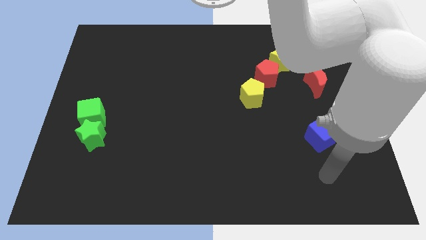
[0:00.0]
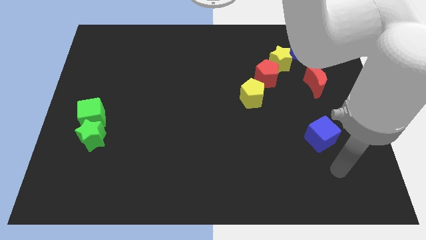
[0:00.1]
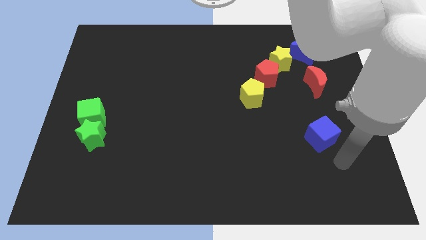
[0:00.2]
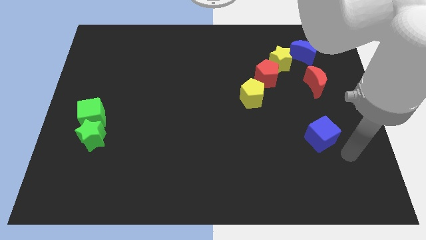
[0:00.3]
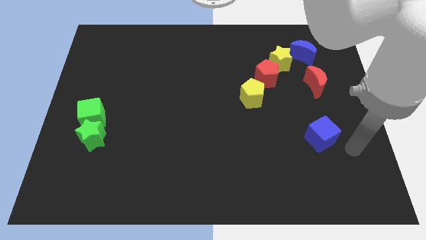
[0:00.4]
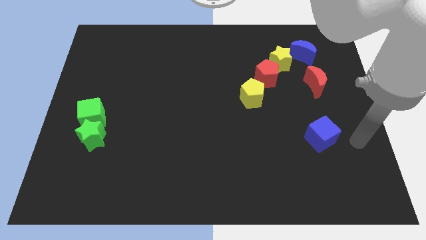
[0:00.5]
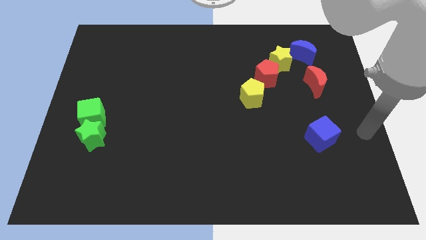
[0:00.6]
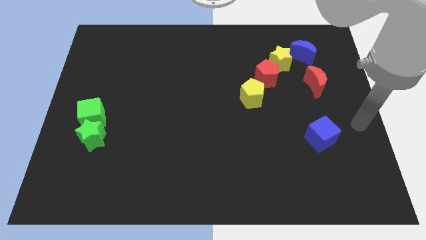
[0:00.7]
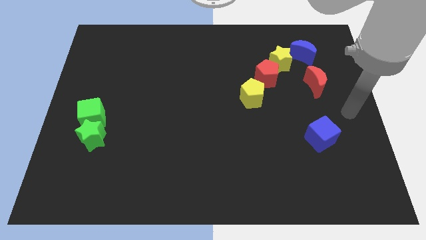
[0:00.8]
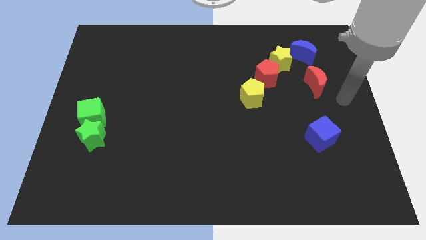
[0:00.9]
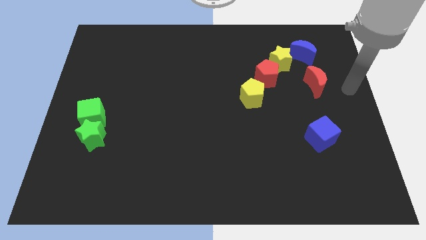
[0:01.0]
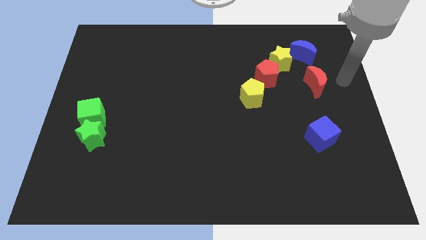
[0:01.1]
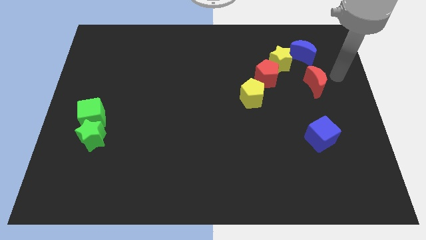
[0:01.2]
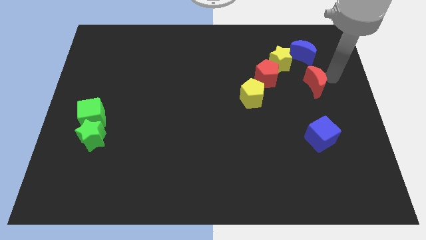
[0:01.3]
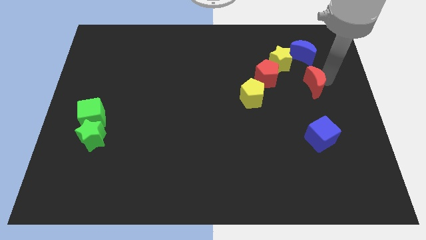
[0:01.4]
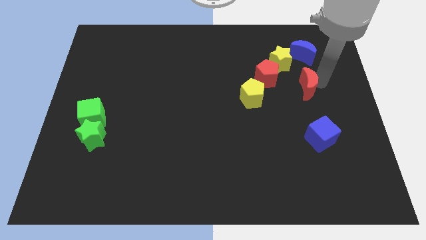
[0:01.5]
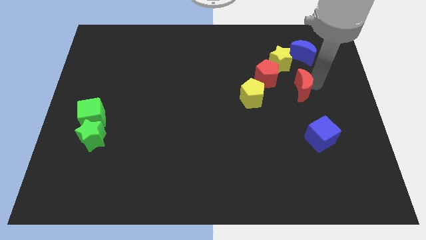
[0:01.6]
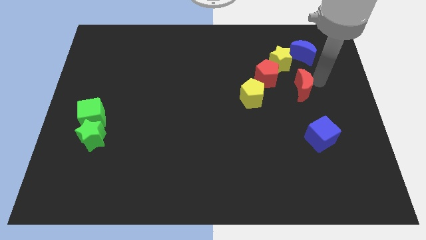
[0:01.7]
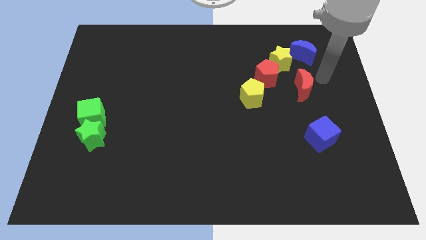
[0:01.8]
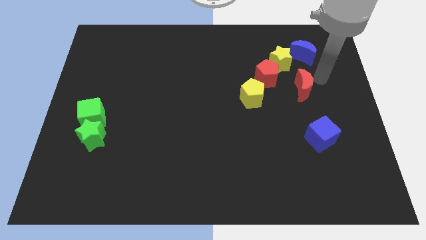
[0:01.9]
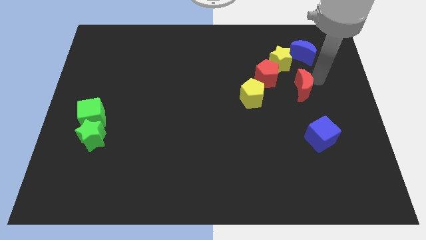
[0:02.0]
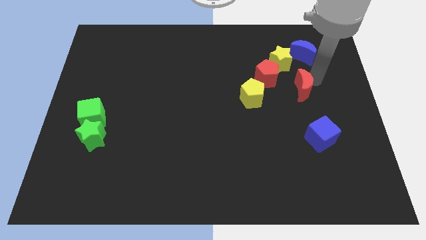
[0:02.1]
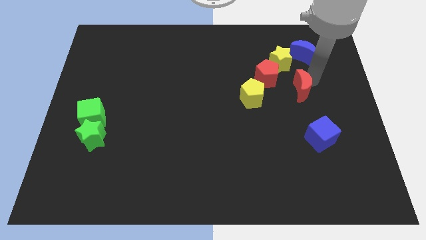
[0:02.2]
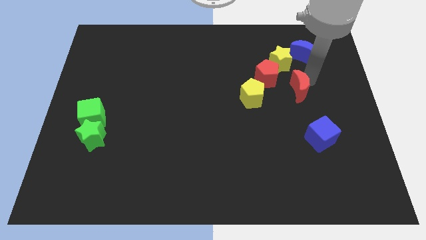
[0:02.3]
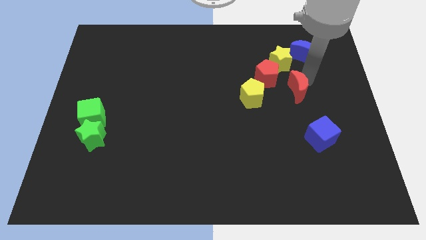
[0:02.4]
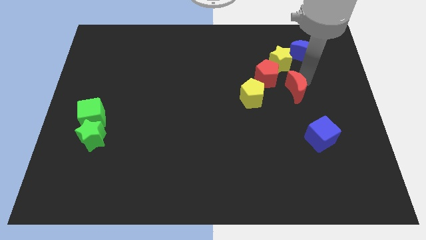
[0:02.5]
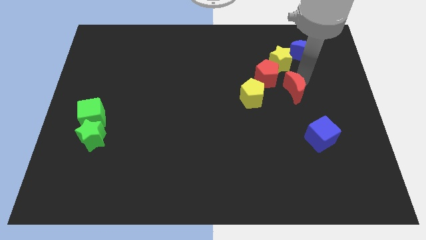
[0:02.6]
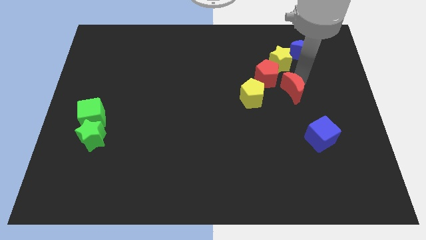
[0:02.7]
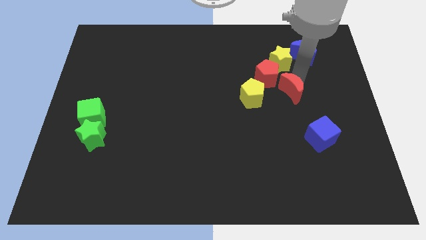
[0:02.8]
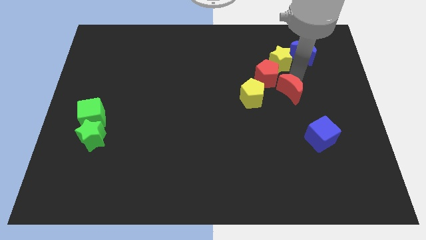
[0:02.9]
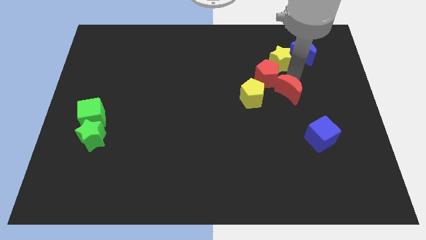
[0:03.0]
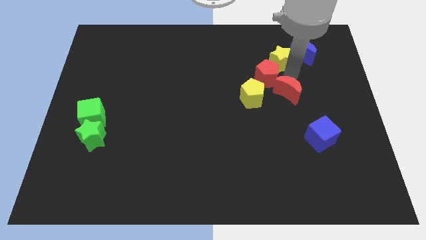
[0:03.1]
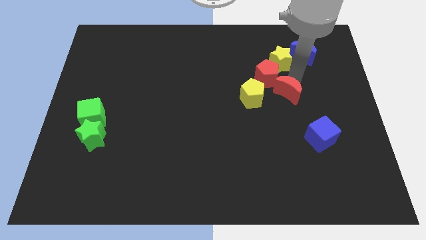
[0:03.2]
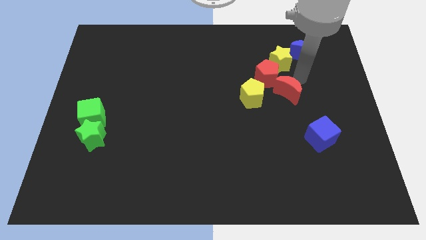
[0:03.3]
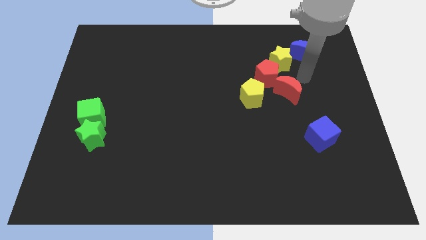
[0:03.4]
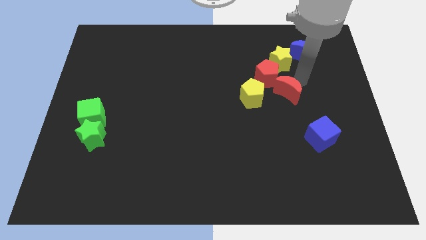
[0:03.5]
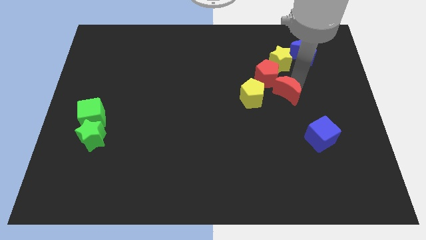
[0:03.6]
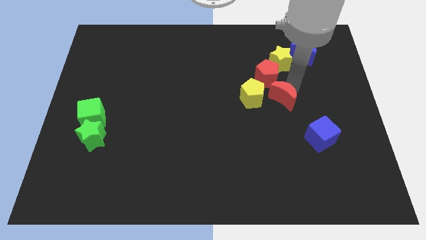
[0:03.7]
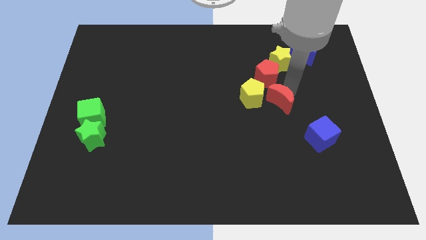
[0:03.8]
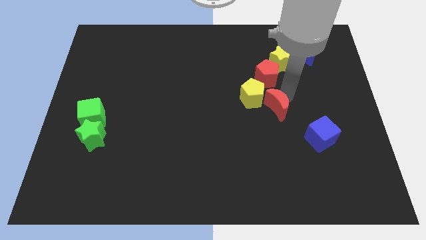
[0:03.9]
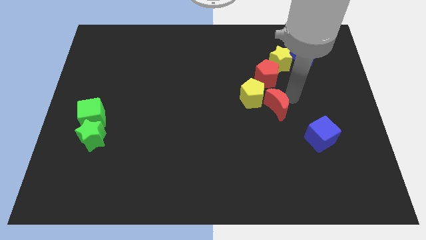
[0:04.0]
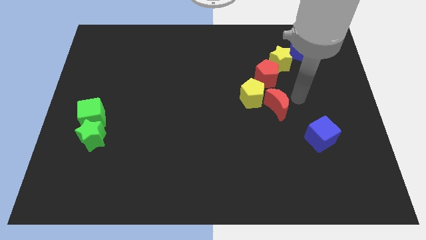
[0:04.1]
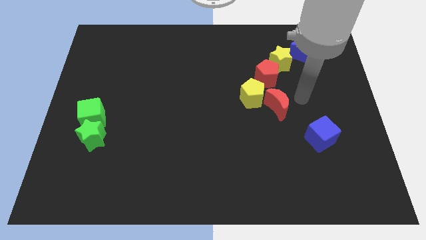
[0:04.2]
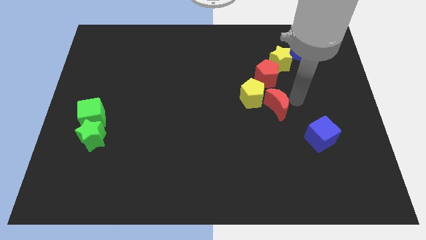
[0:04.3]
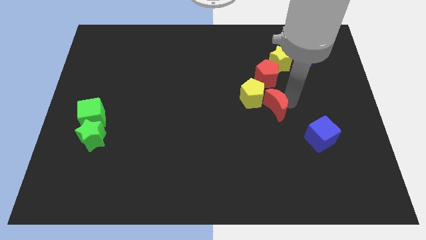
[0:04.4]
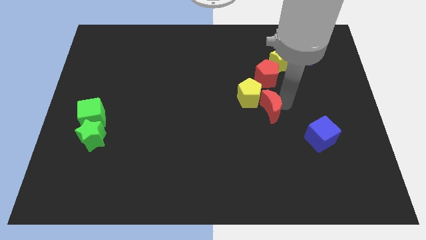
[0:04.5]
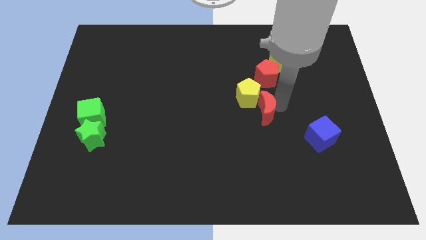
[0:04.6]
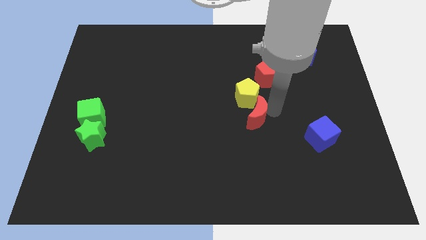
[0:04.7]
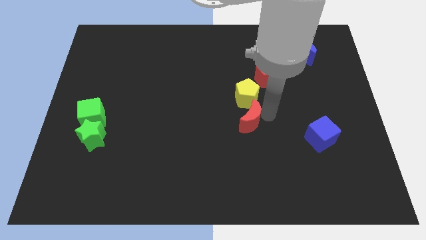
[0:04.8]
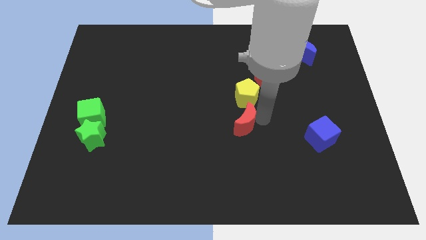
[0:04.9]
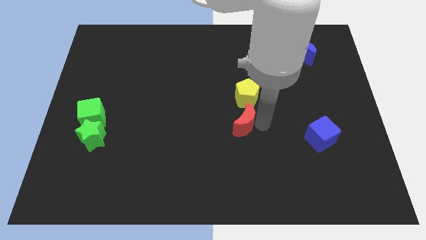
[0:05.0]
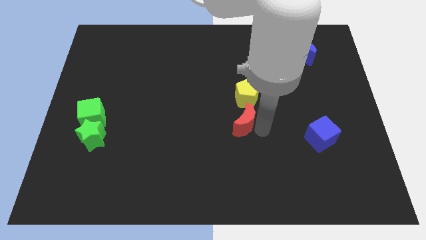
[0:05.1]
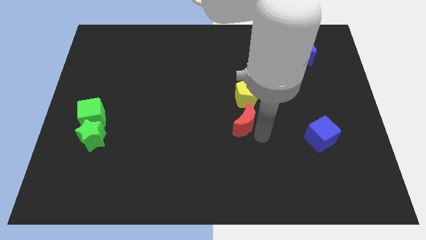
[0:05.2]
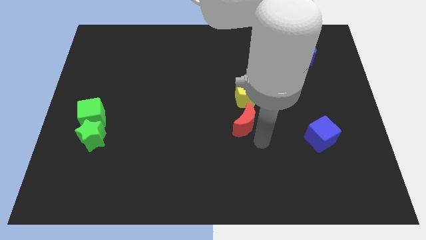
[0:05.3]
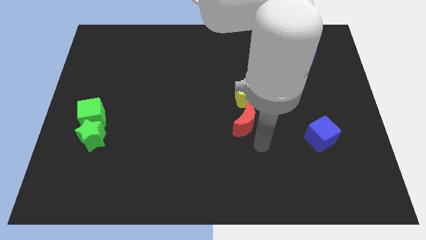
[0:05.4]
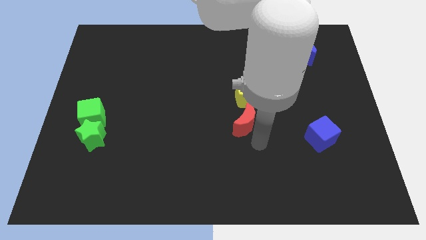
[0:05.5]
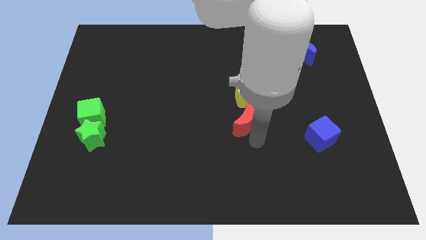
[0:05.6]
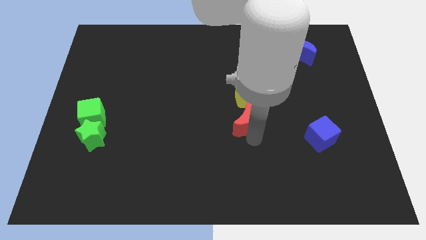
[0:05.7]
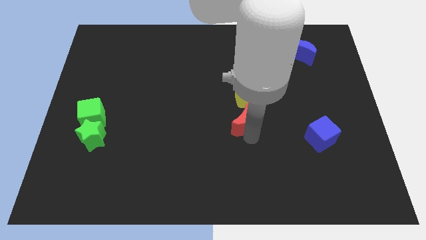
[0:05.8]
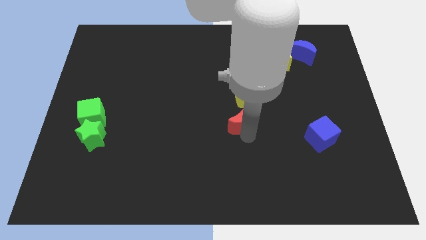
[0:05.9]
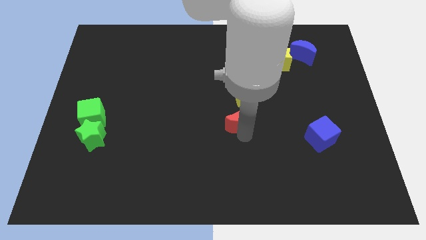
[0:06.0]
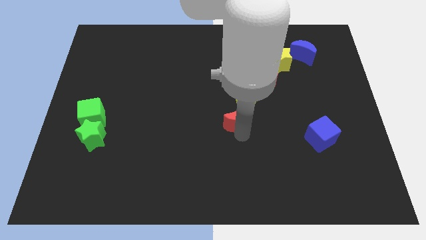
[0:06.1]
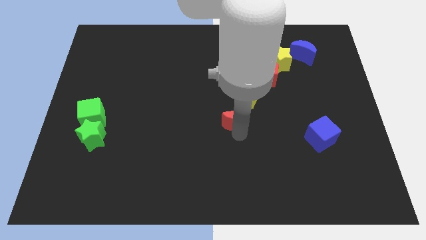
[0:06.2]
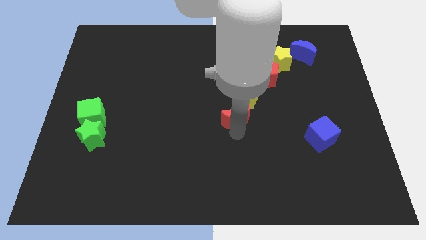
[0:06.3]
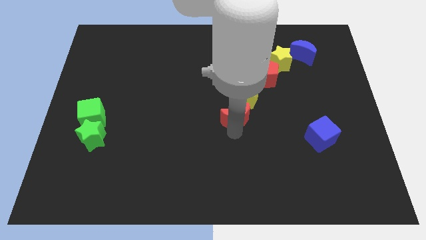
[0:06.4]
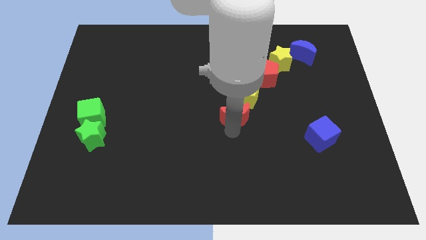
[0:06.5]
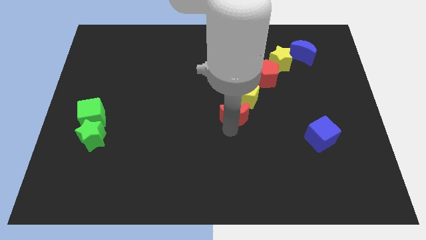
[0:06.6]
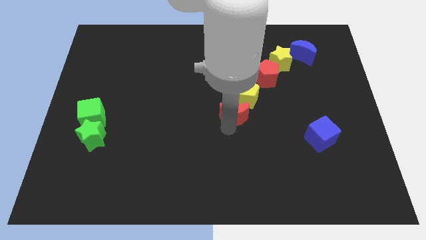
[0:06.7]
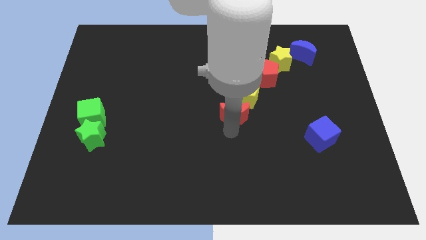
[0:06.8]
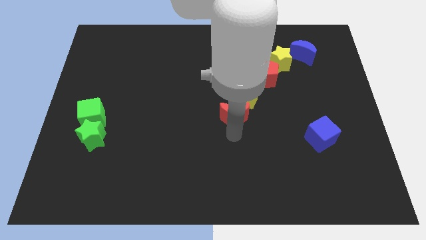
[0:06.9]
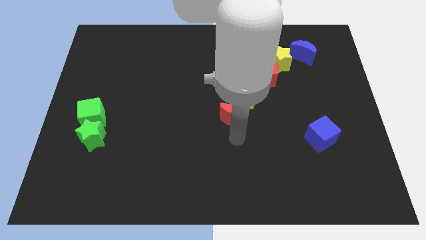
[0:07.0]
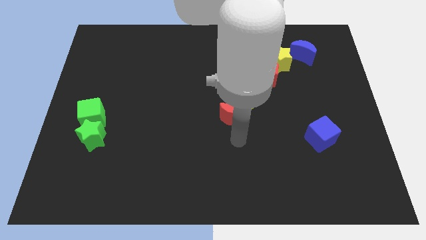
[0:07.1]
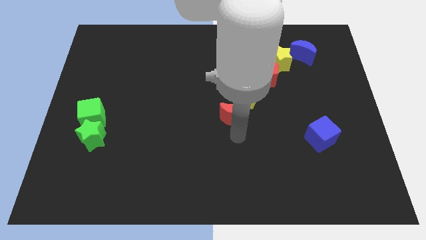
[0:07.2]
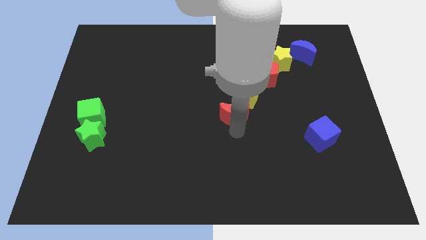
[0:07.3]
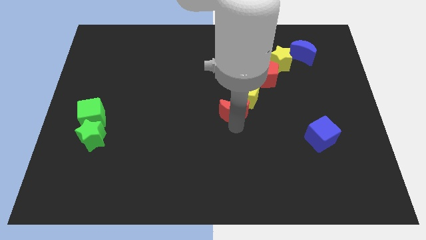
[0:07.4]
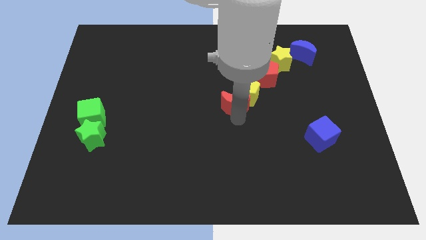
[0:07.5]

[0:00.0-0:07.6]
slide the red moon just left of the yellow pentagon

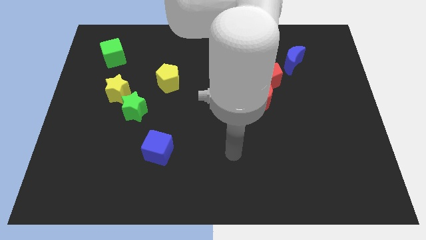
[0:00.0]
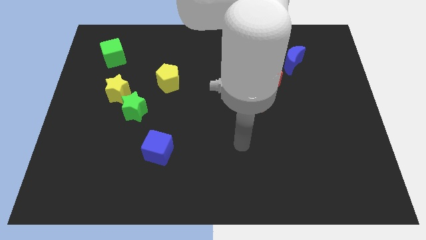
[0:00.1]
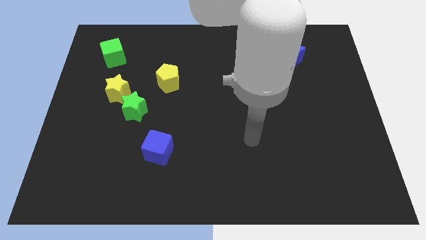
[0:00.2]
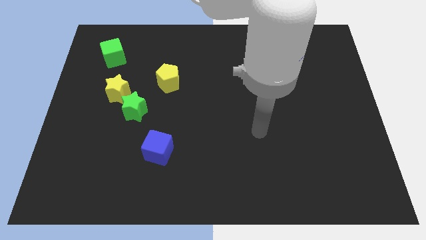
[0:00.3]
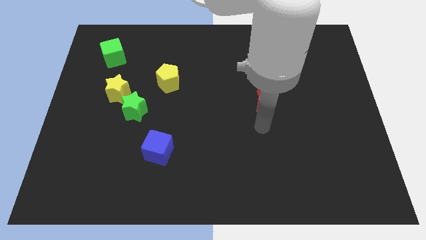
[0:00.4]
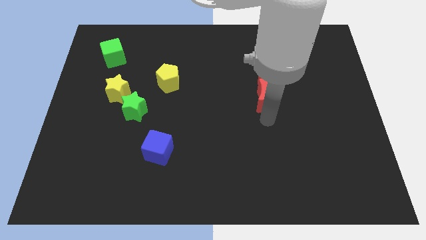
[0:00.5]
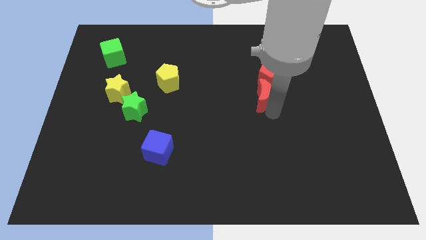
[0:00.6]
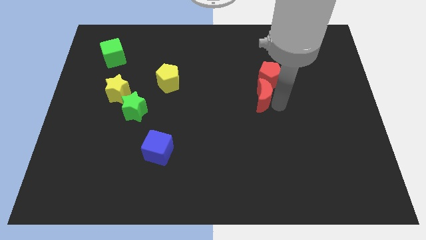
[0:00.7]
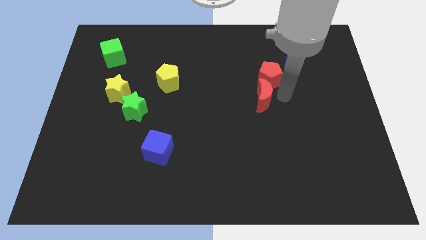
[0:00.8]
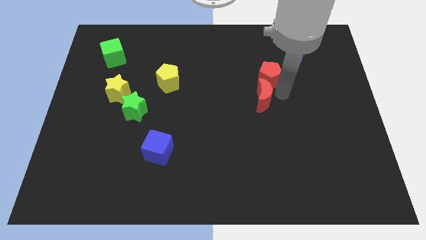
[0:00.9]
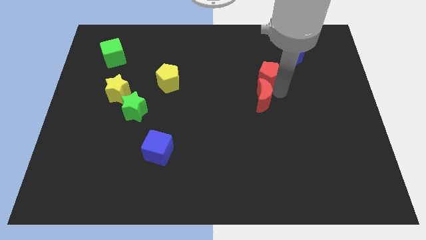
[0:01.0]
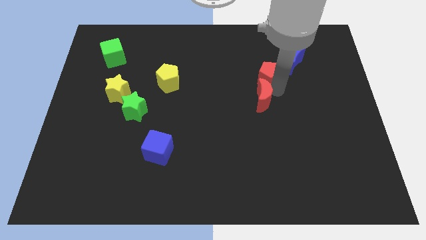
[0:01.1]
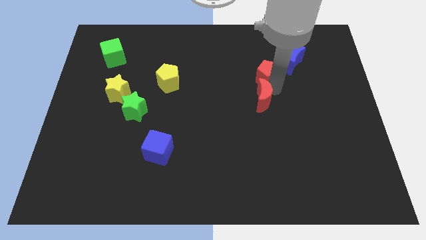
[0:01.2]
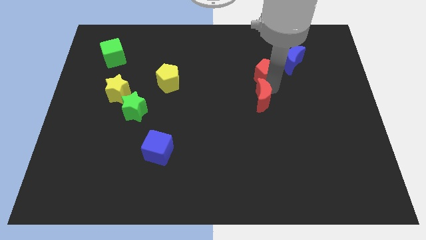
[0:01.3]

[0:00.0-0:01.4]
put the red pentagon to the left side of the blue moon
